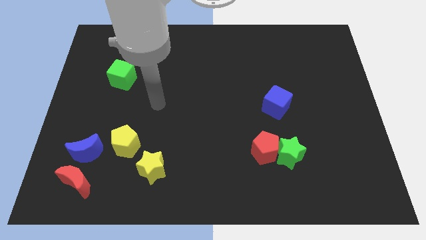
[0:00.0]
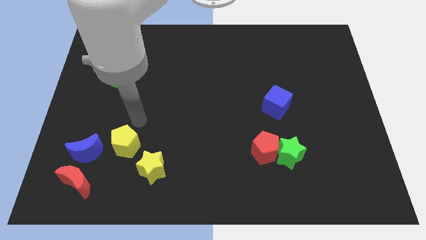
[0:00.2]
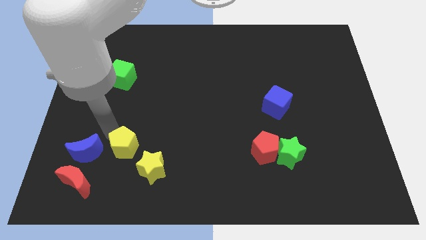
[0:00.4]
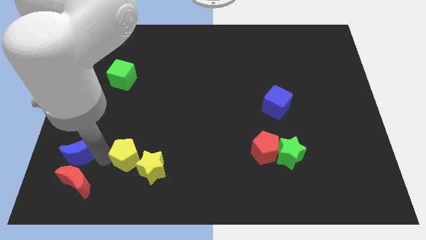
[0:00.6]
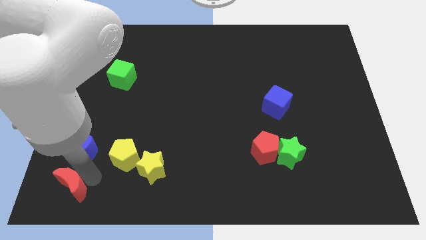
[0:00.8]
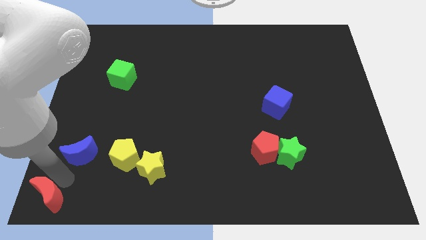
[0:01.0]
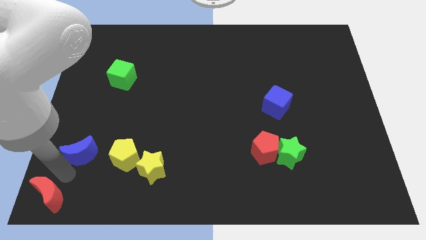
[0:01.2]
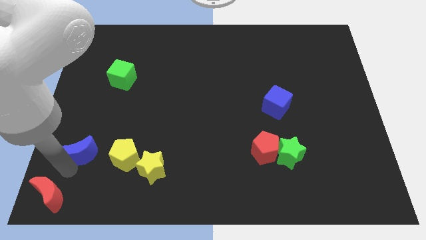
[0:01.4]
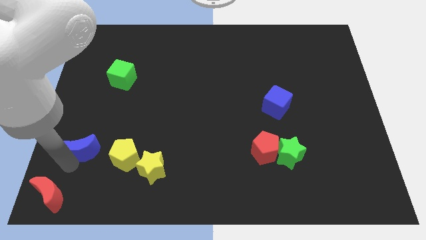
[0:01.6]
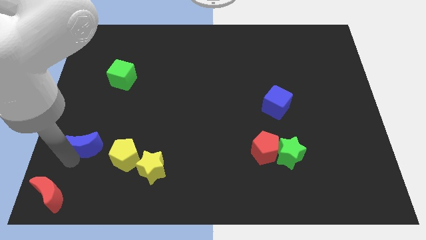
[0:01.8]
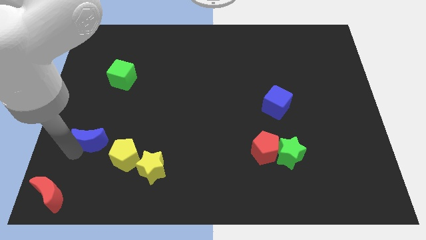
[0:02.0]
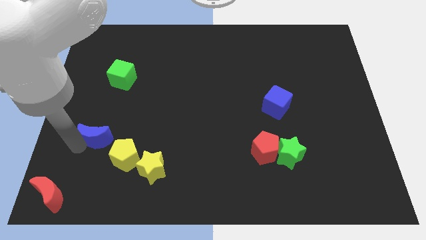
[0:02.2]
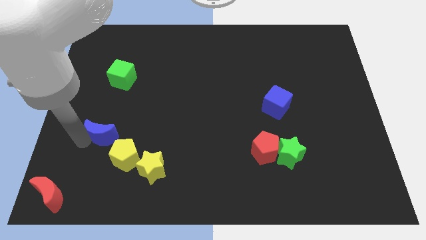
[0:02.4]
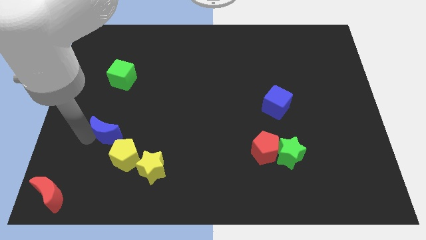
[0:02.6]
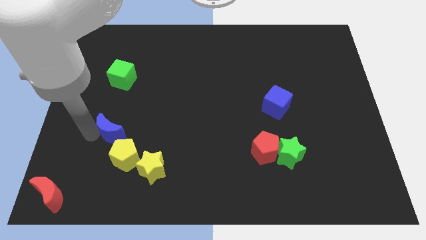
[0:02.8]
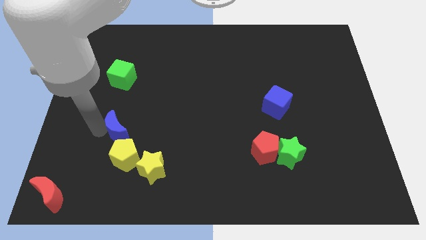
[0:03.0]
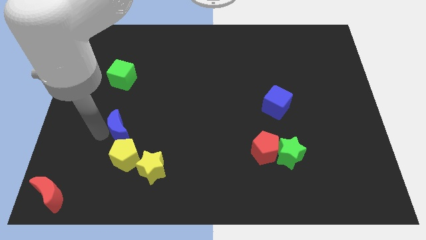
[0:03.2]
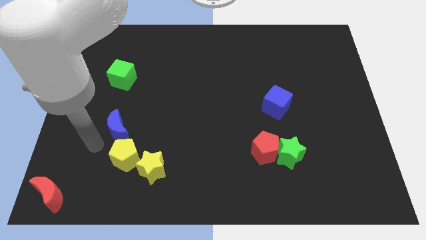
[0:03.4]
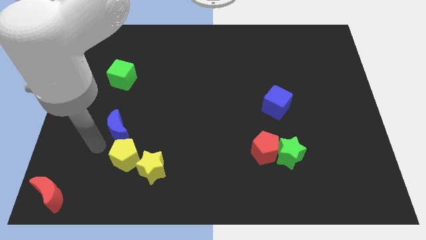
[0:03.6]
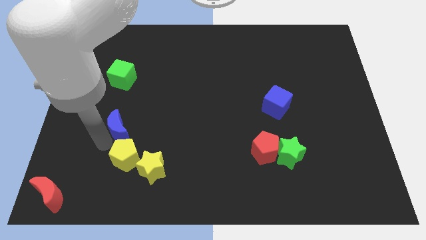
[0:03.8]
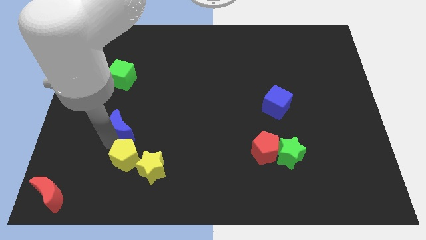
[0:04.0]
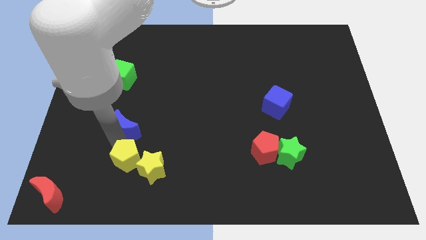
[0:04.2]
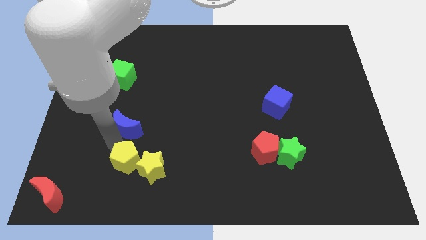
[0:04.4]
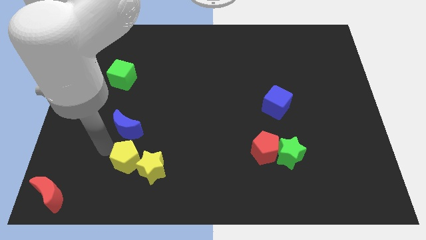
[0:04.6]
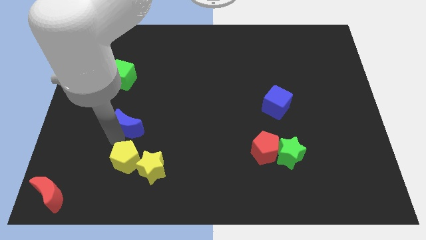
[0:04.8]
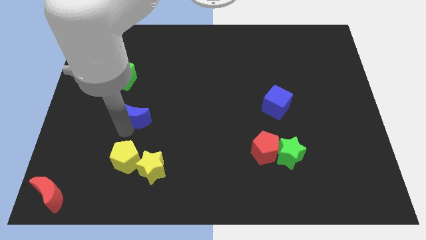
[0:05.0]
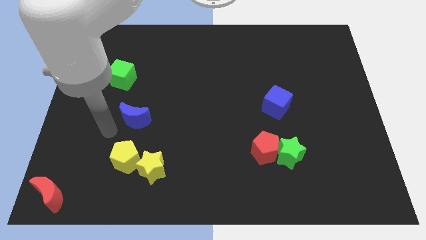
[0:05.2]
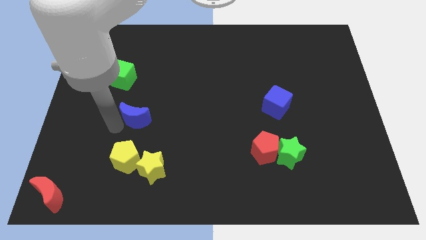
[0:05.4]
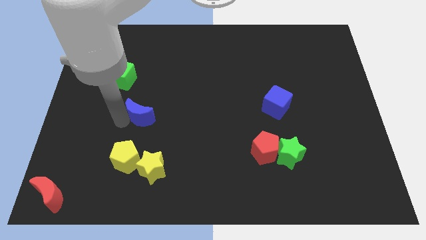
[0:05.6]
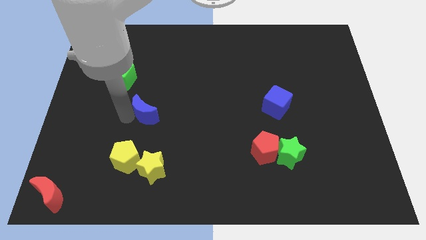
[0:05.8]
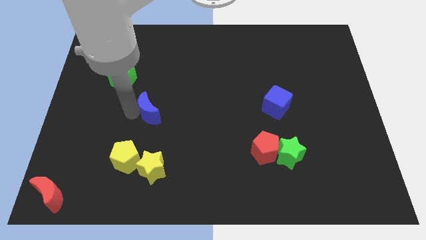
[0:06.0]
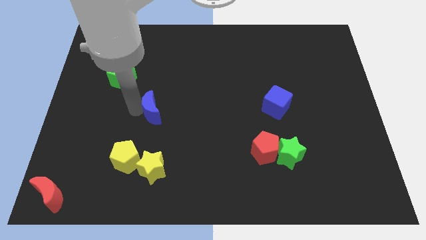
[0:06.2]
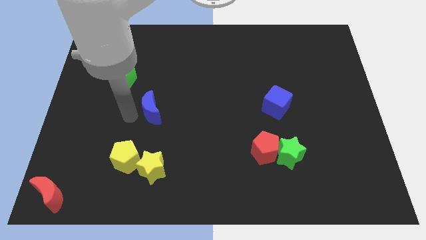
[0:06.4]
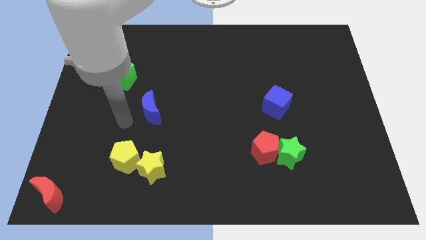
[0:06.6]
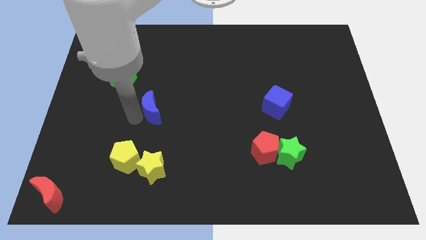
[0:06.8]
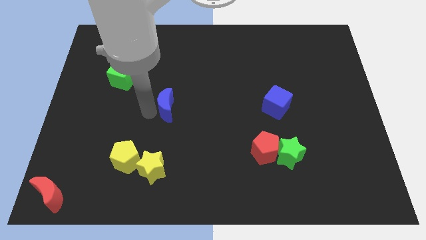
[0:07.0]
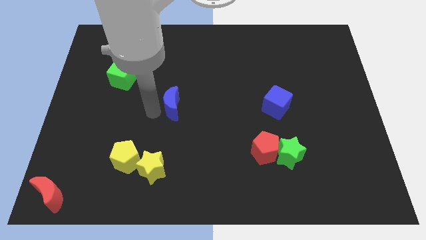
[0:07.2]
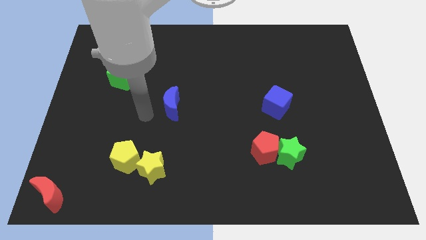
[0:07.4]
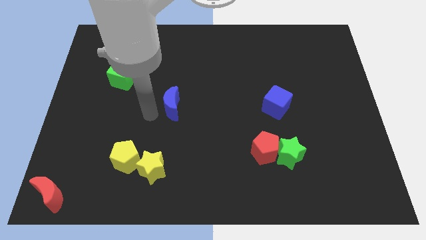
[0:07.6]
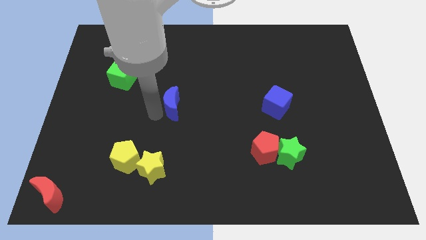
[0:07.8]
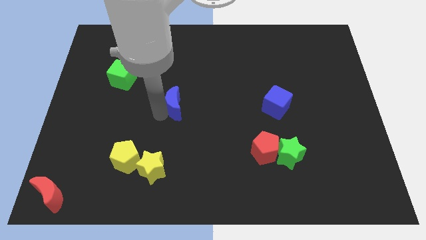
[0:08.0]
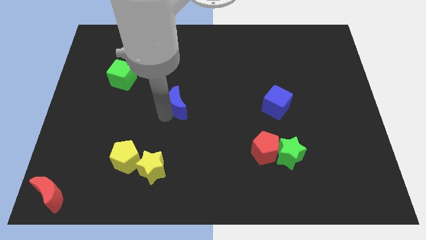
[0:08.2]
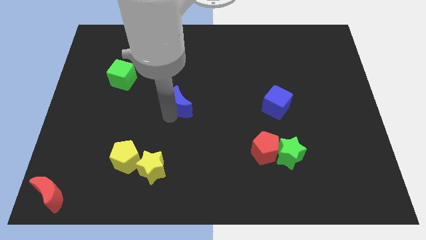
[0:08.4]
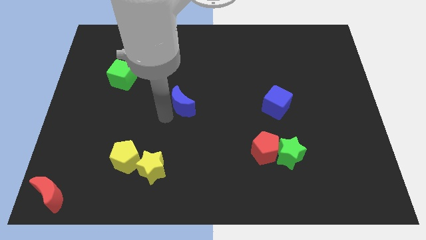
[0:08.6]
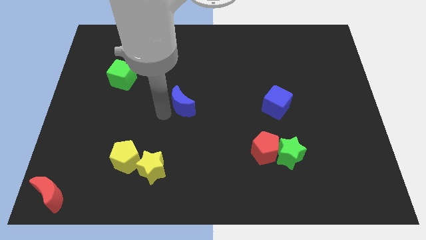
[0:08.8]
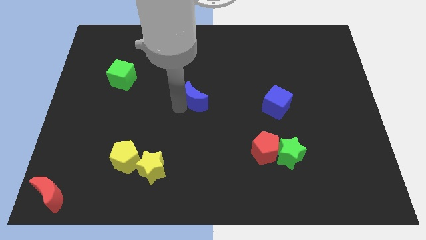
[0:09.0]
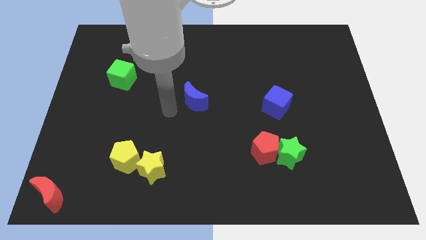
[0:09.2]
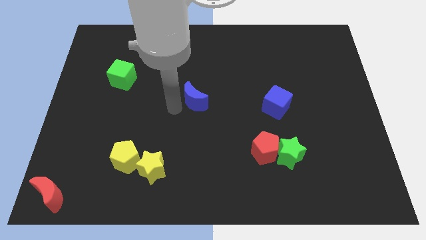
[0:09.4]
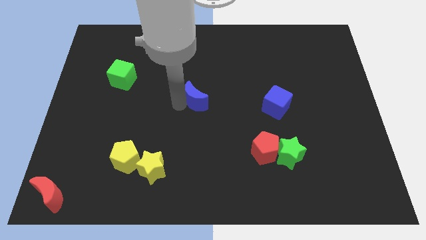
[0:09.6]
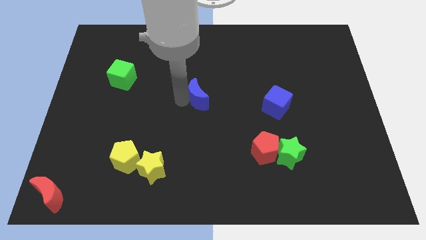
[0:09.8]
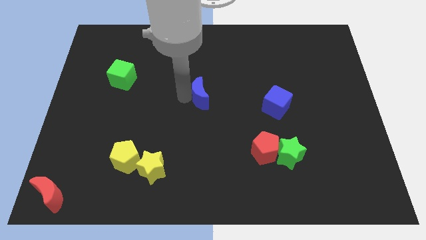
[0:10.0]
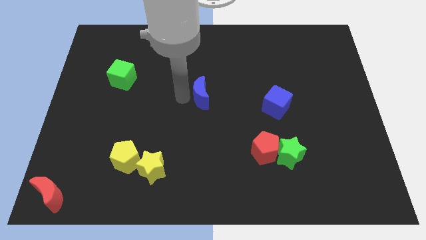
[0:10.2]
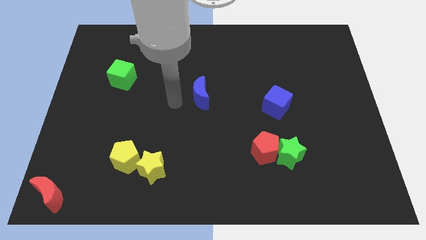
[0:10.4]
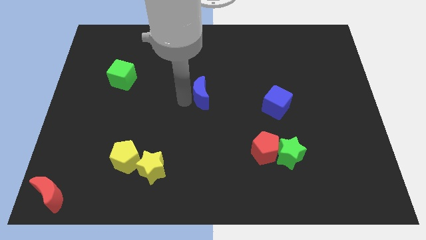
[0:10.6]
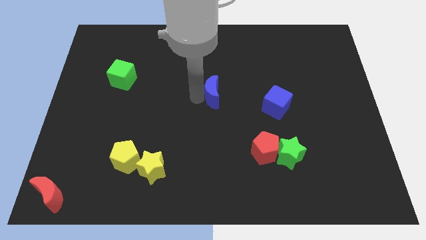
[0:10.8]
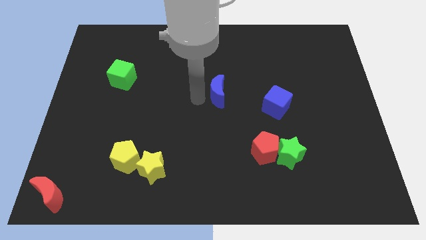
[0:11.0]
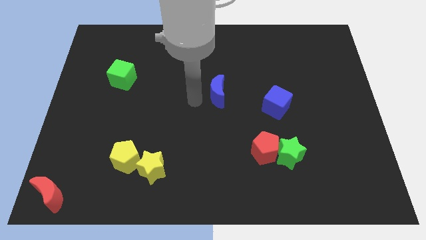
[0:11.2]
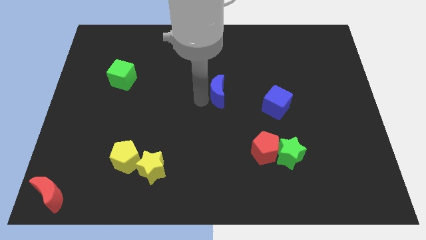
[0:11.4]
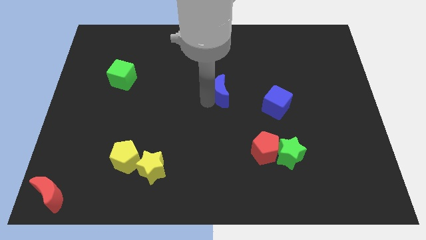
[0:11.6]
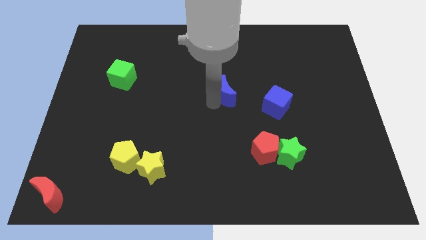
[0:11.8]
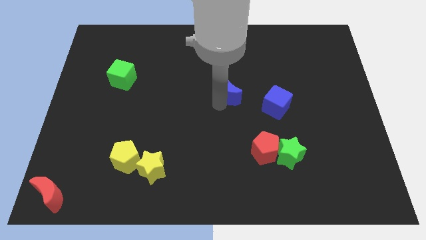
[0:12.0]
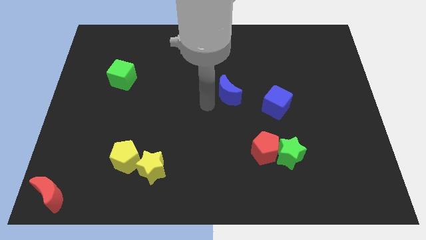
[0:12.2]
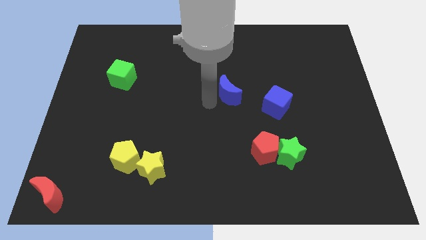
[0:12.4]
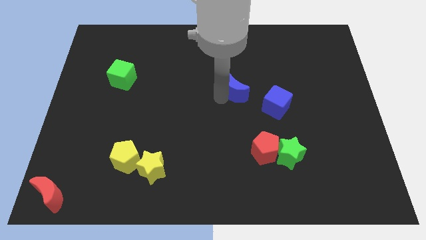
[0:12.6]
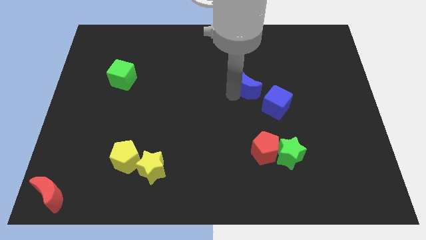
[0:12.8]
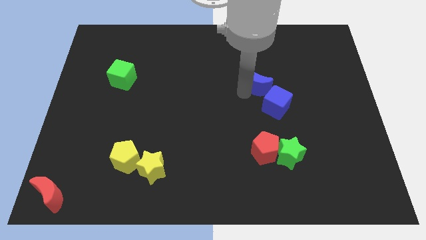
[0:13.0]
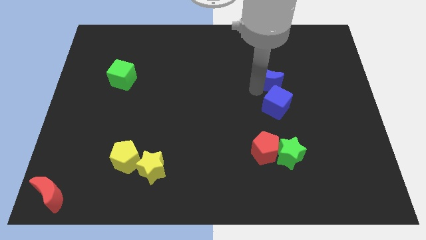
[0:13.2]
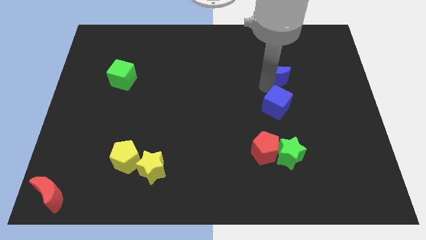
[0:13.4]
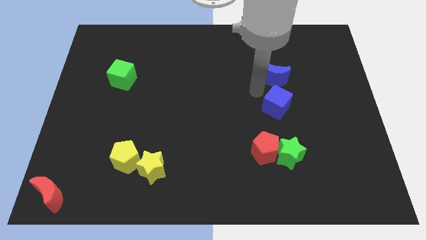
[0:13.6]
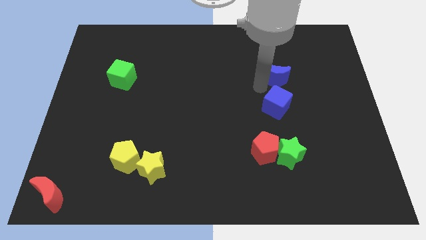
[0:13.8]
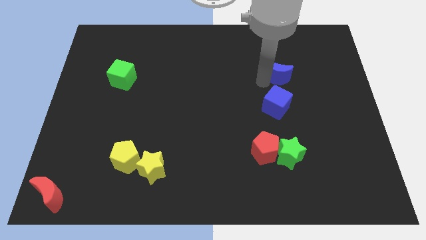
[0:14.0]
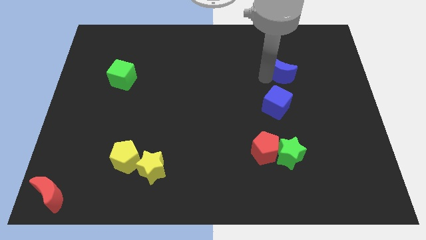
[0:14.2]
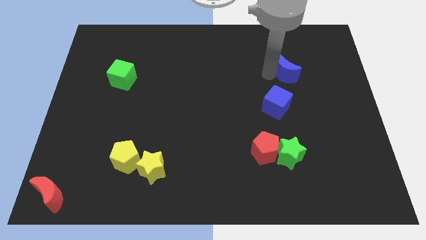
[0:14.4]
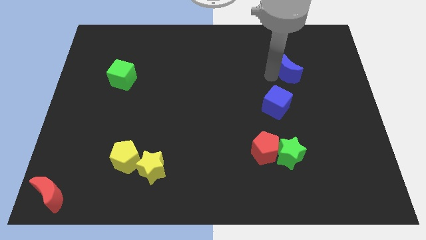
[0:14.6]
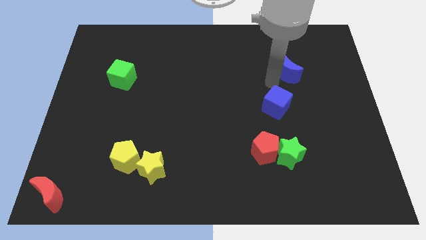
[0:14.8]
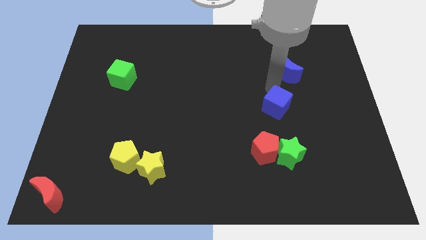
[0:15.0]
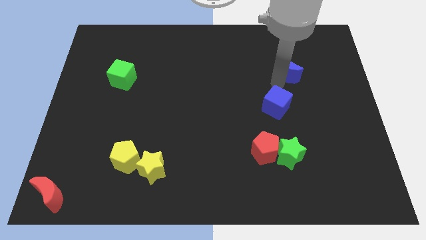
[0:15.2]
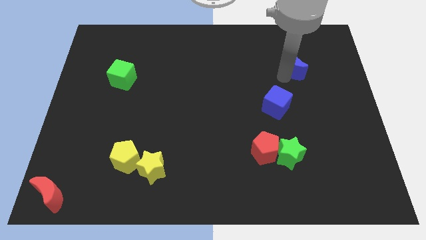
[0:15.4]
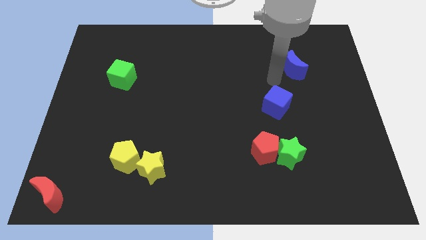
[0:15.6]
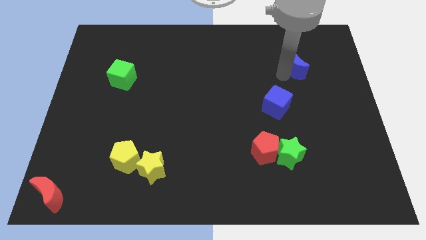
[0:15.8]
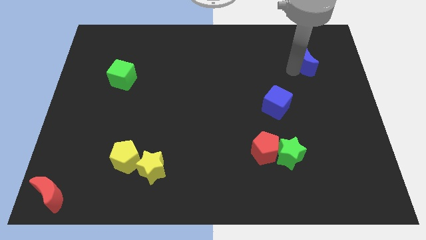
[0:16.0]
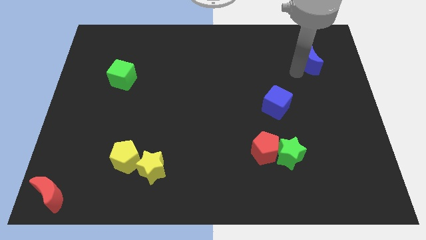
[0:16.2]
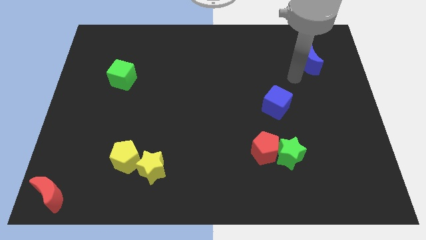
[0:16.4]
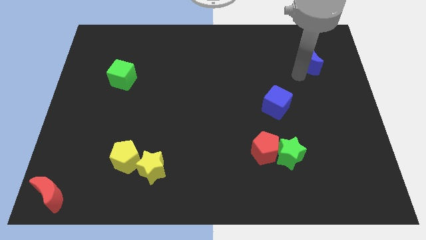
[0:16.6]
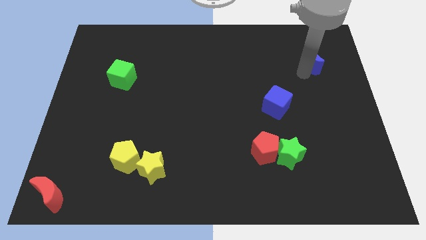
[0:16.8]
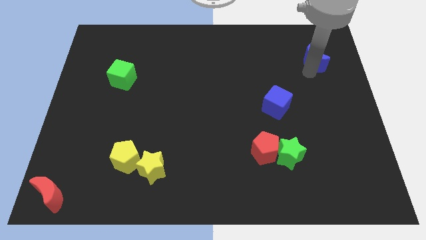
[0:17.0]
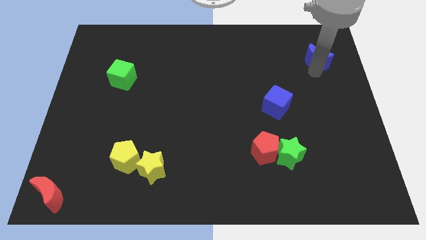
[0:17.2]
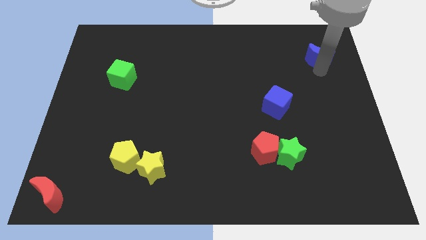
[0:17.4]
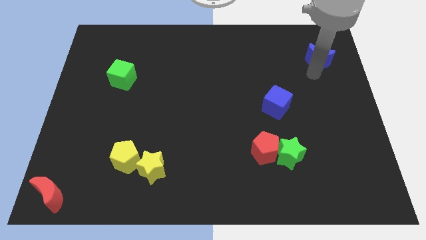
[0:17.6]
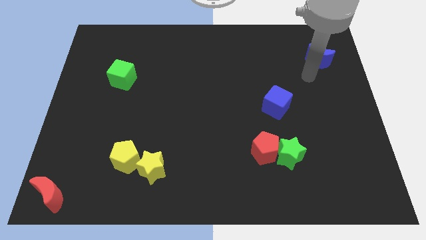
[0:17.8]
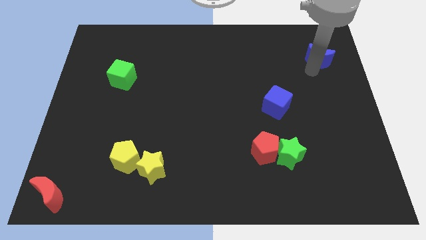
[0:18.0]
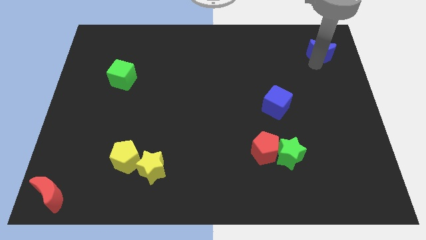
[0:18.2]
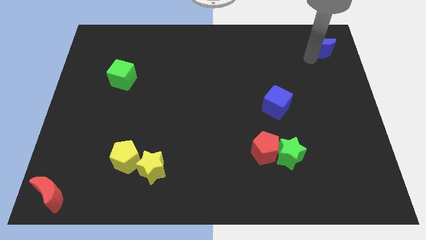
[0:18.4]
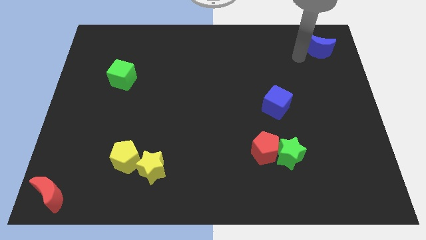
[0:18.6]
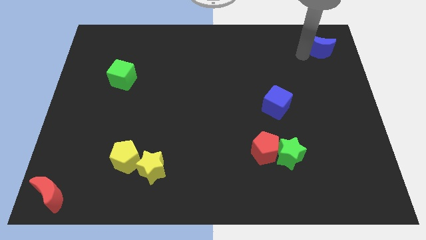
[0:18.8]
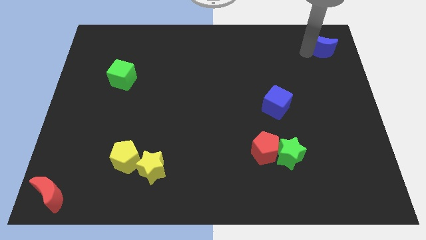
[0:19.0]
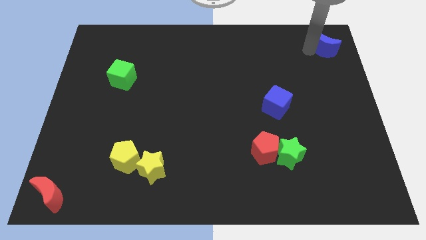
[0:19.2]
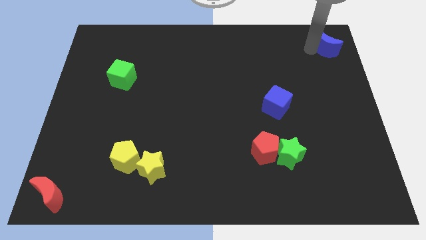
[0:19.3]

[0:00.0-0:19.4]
move the blue moon to the top right
